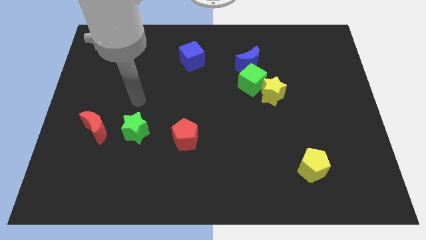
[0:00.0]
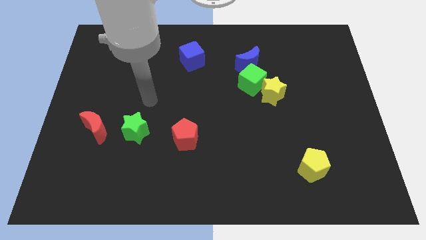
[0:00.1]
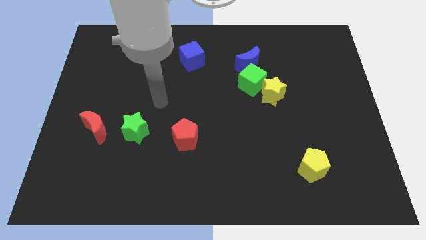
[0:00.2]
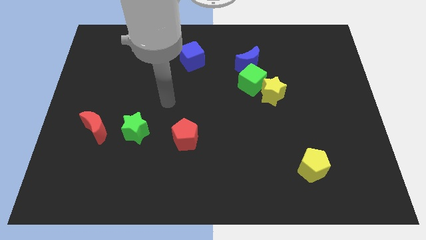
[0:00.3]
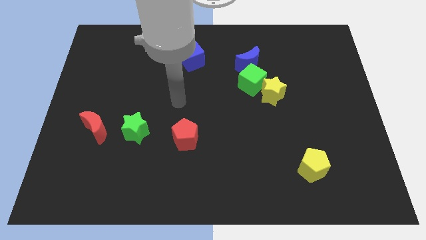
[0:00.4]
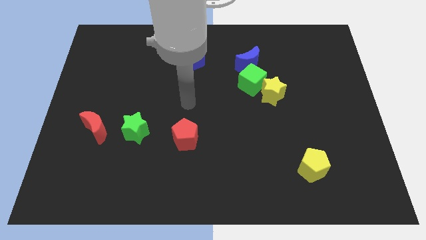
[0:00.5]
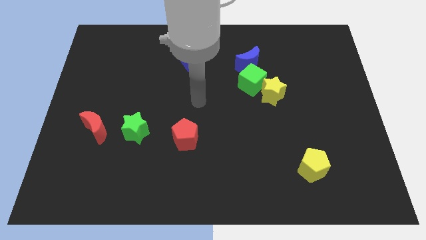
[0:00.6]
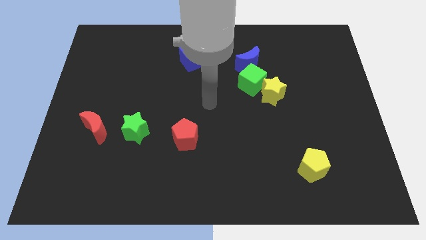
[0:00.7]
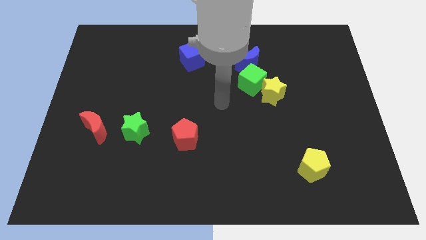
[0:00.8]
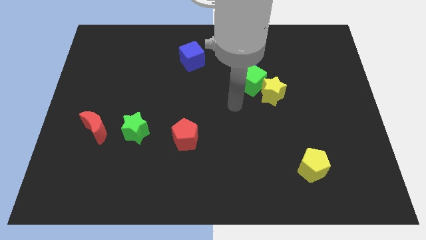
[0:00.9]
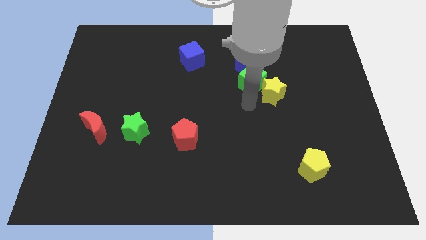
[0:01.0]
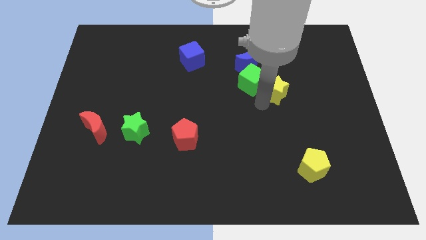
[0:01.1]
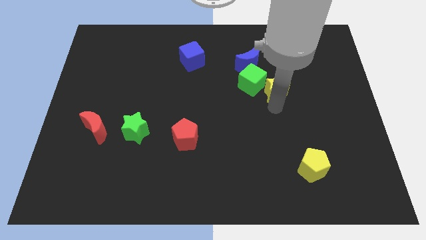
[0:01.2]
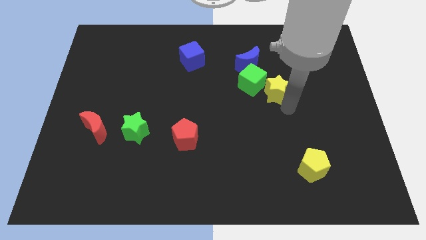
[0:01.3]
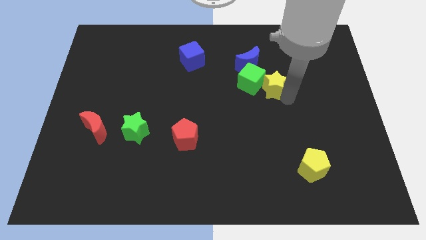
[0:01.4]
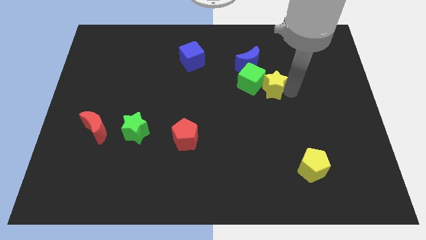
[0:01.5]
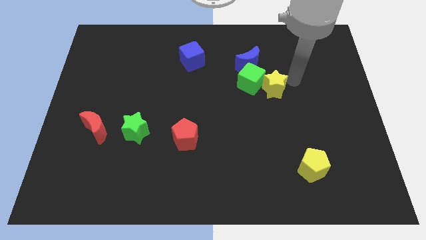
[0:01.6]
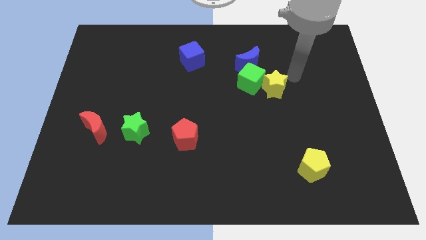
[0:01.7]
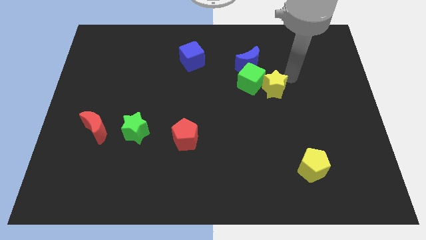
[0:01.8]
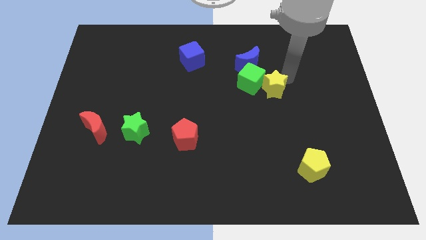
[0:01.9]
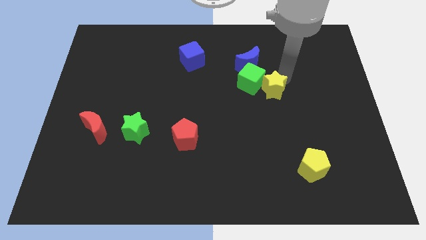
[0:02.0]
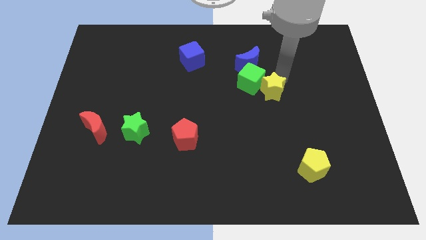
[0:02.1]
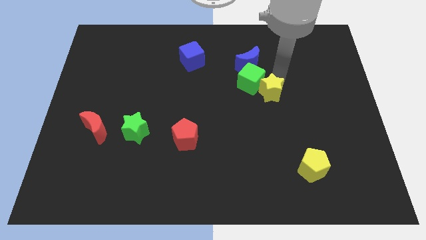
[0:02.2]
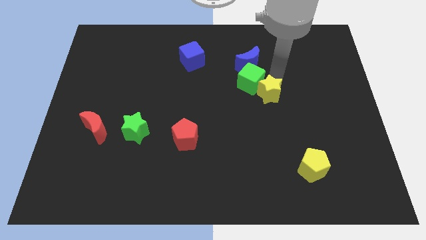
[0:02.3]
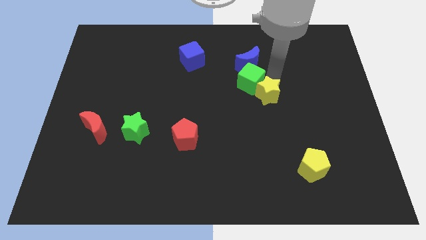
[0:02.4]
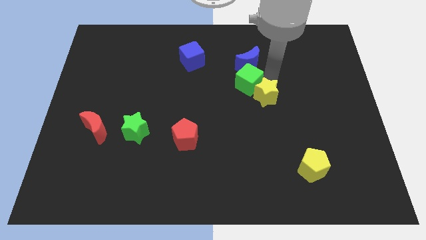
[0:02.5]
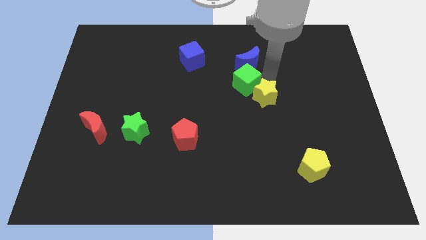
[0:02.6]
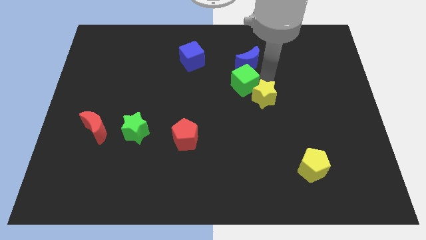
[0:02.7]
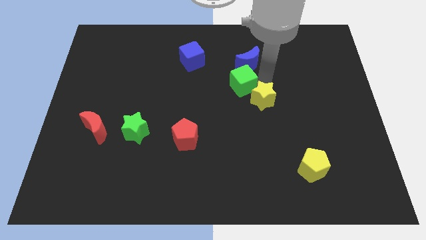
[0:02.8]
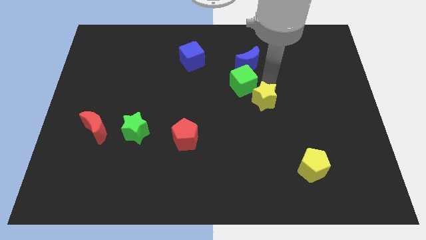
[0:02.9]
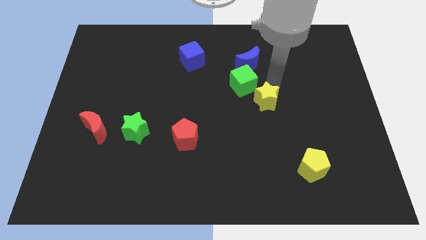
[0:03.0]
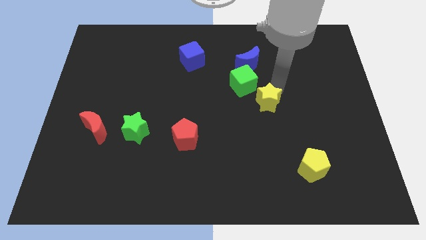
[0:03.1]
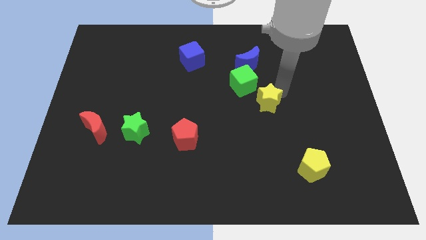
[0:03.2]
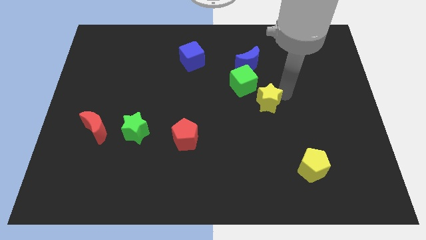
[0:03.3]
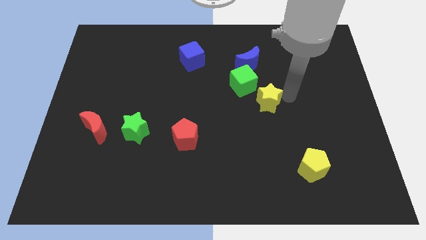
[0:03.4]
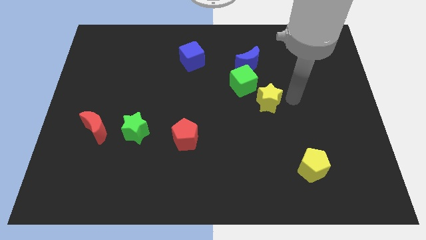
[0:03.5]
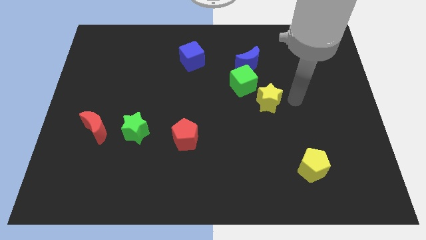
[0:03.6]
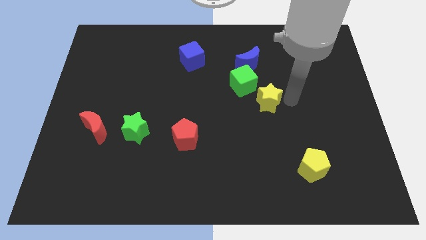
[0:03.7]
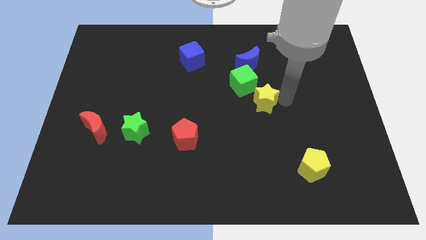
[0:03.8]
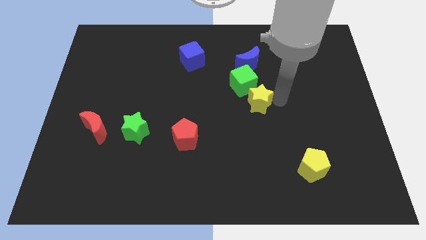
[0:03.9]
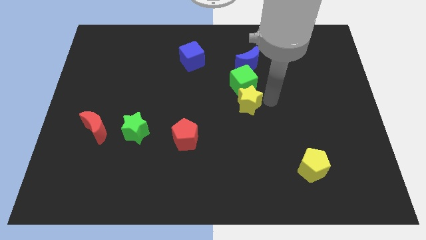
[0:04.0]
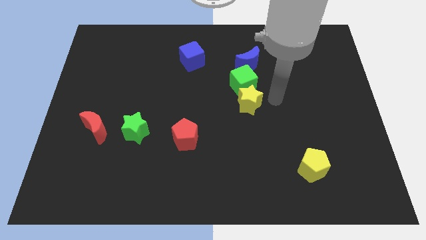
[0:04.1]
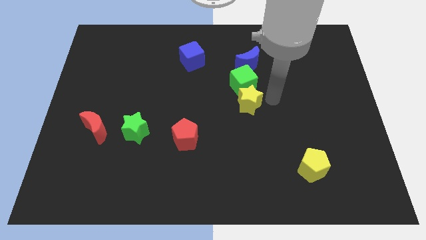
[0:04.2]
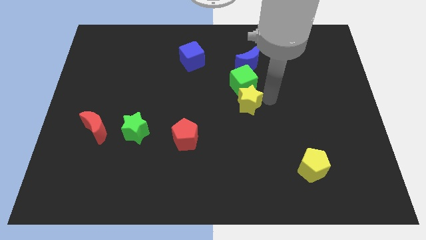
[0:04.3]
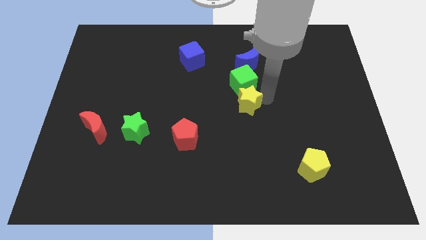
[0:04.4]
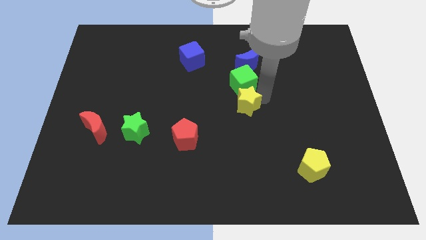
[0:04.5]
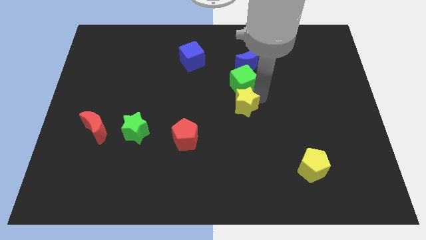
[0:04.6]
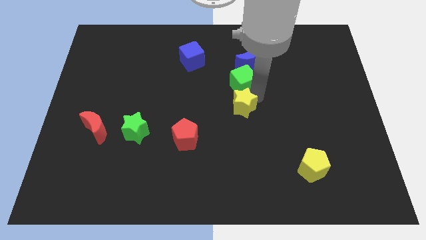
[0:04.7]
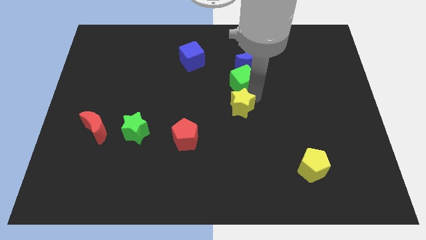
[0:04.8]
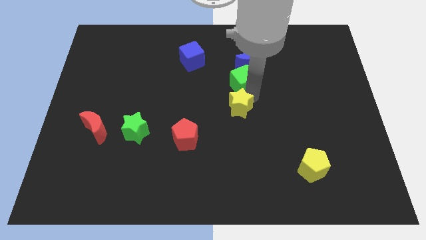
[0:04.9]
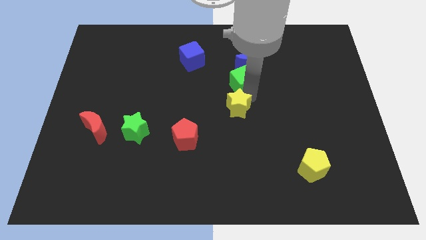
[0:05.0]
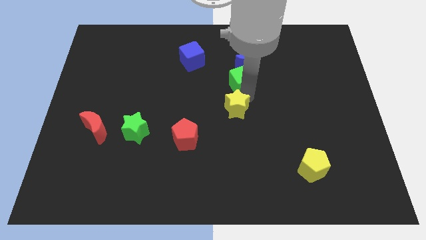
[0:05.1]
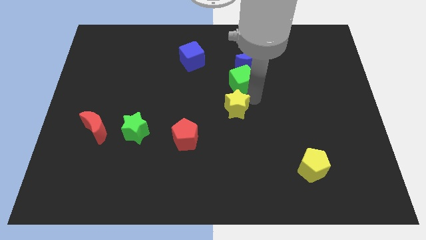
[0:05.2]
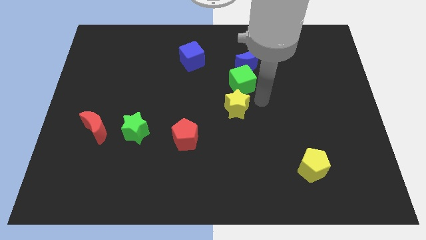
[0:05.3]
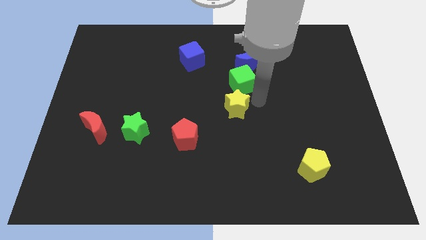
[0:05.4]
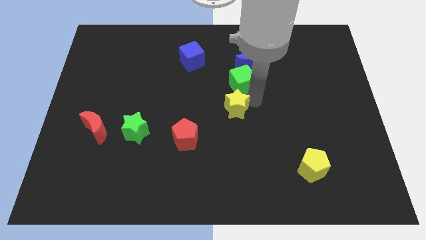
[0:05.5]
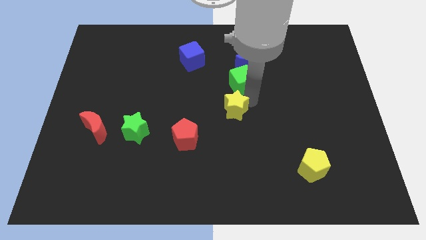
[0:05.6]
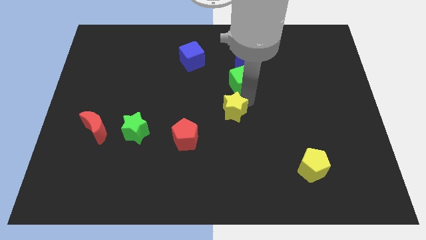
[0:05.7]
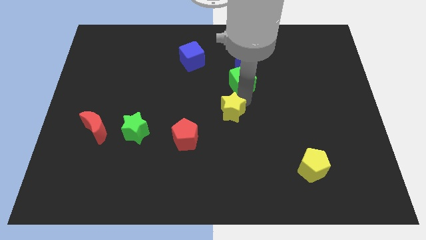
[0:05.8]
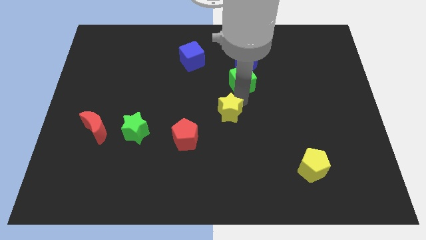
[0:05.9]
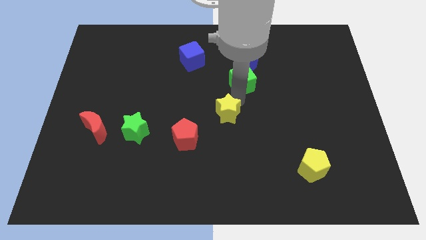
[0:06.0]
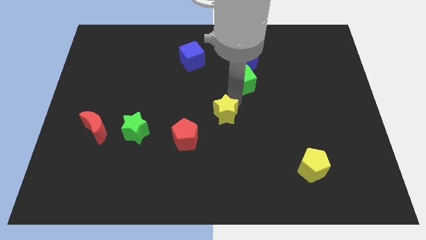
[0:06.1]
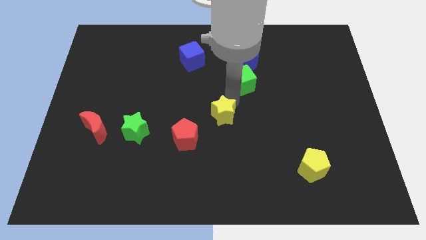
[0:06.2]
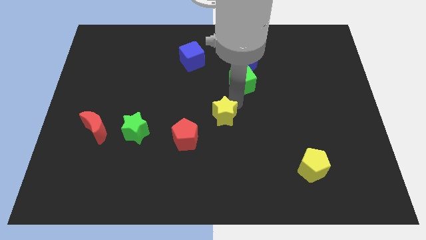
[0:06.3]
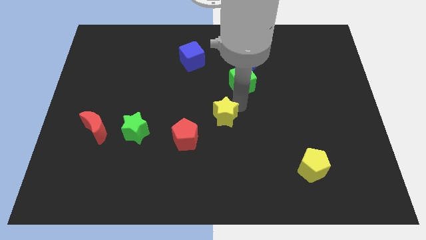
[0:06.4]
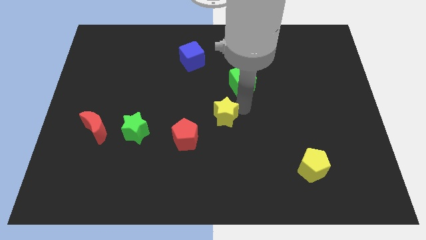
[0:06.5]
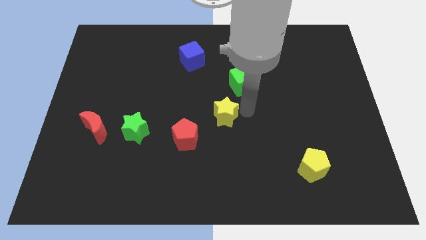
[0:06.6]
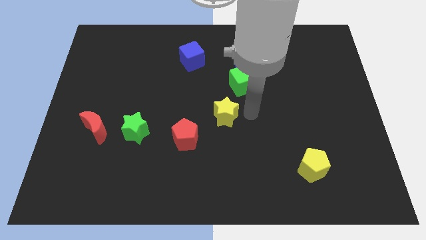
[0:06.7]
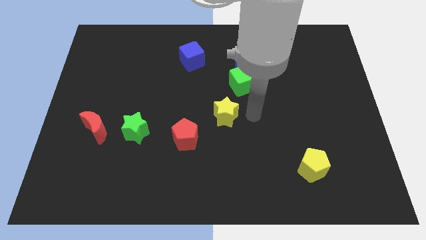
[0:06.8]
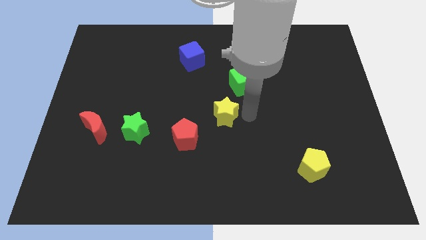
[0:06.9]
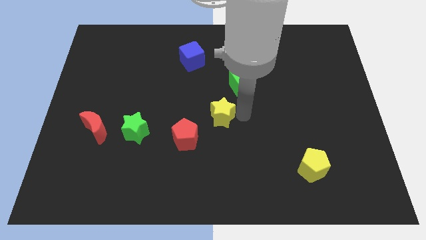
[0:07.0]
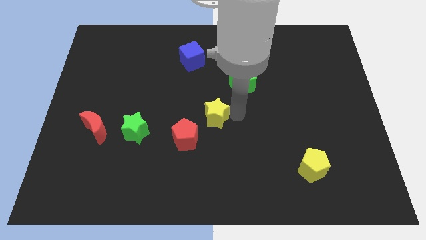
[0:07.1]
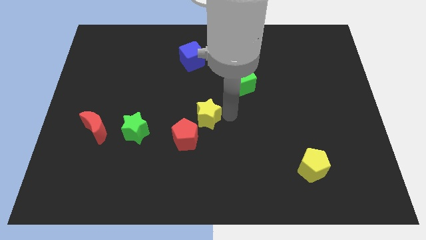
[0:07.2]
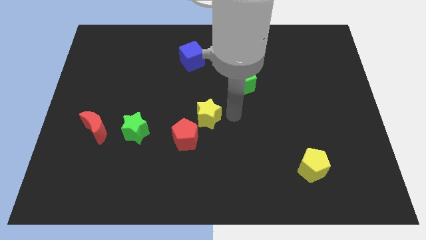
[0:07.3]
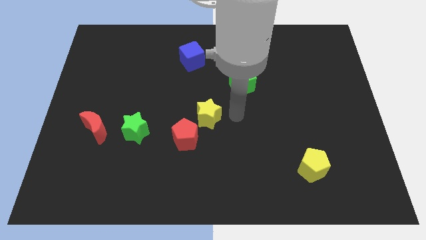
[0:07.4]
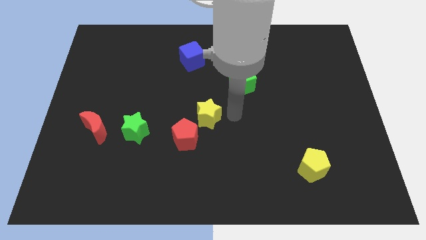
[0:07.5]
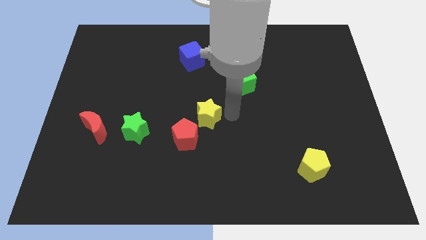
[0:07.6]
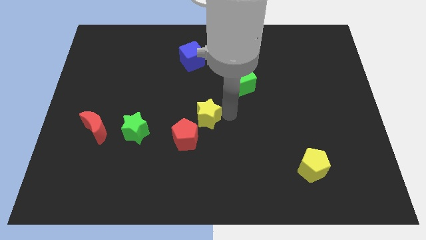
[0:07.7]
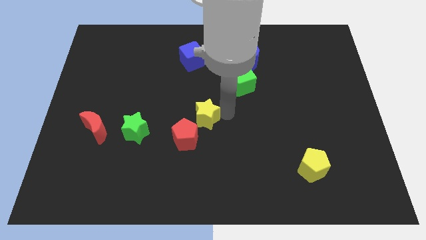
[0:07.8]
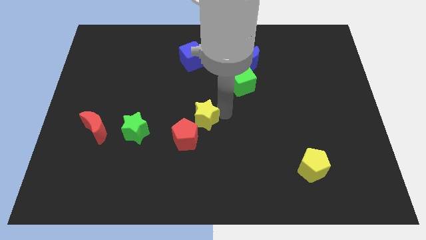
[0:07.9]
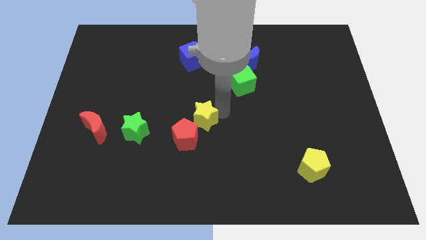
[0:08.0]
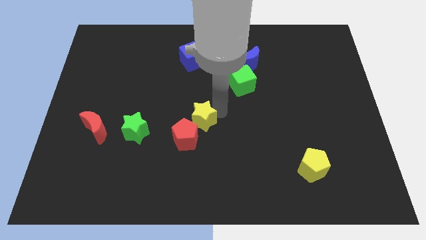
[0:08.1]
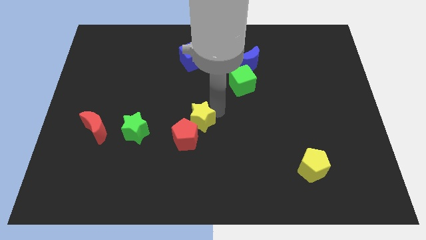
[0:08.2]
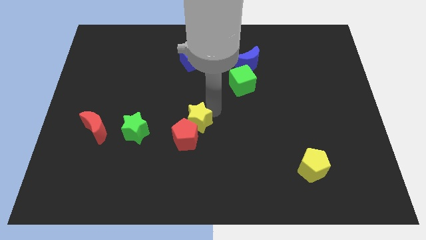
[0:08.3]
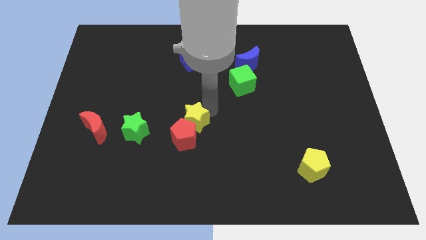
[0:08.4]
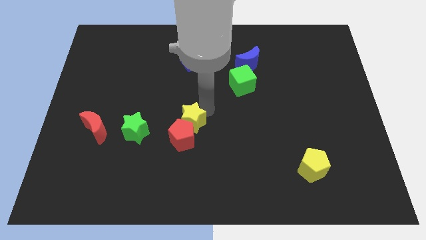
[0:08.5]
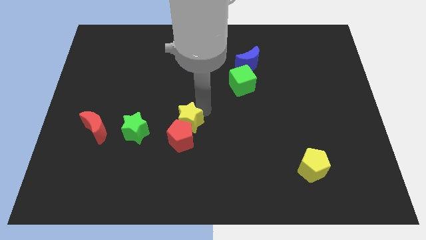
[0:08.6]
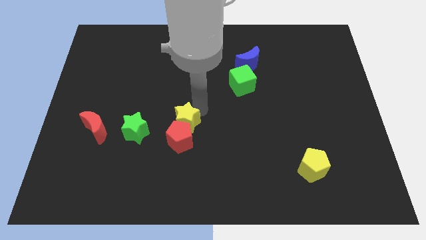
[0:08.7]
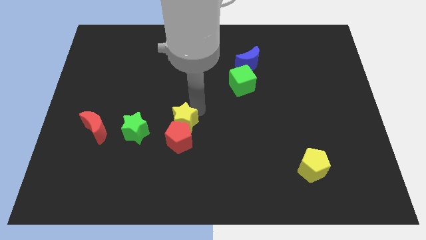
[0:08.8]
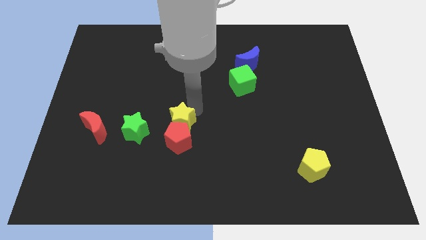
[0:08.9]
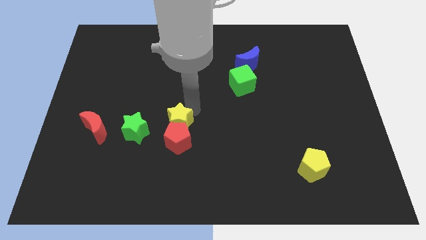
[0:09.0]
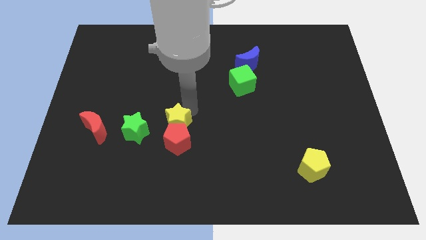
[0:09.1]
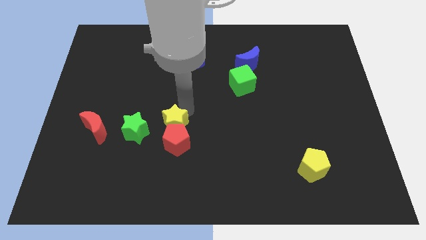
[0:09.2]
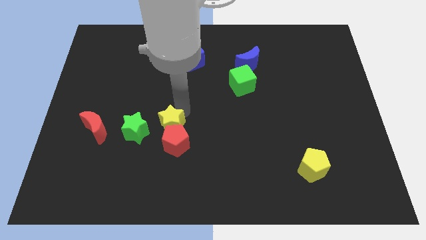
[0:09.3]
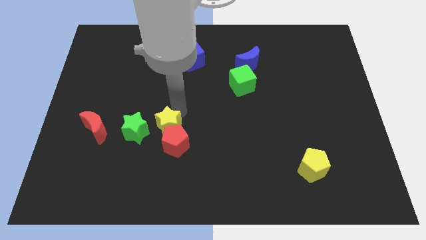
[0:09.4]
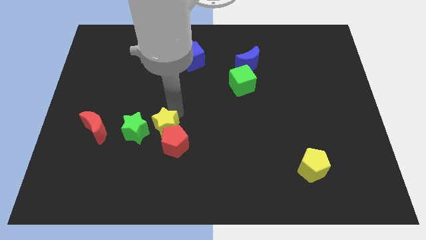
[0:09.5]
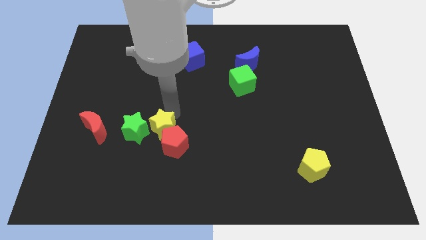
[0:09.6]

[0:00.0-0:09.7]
move the yellow star next to the green star
